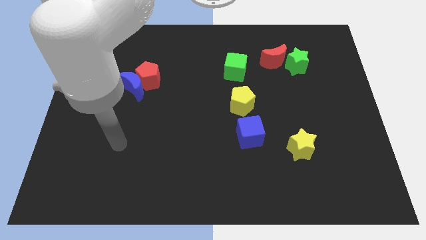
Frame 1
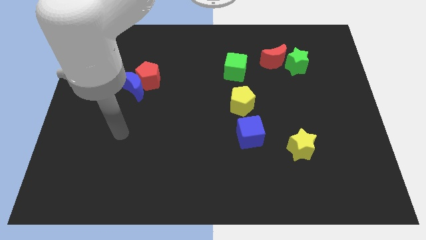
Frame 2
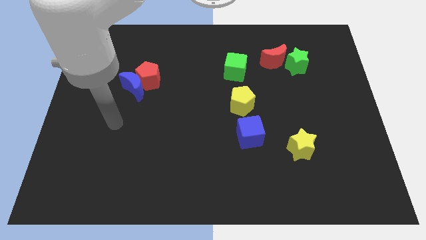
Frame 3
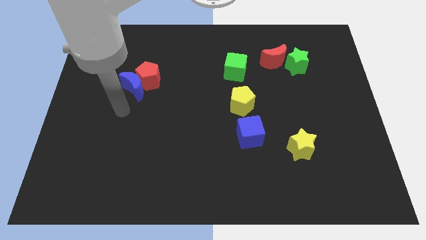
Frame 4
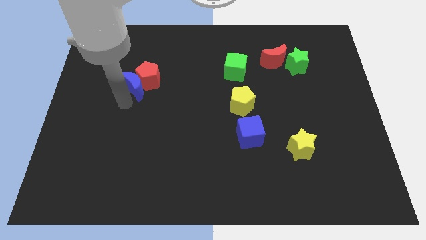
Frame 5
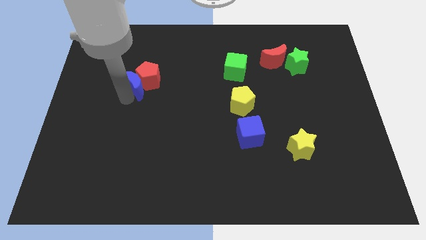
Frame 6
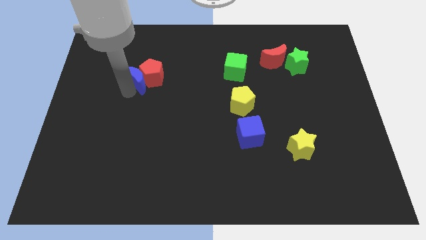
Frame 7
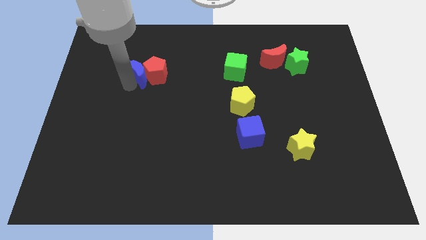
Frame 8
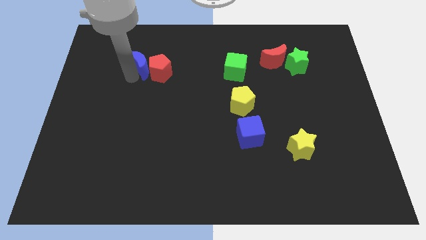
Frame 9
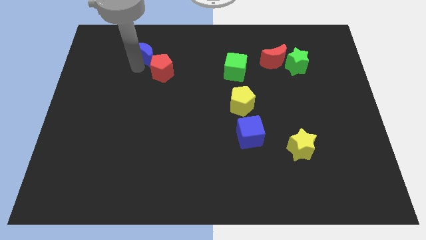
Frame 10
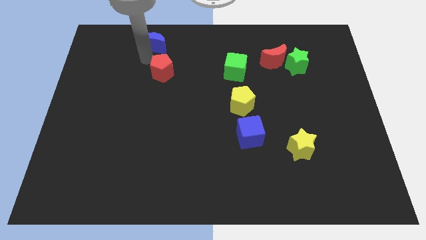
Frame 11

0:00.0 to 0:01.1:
separate the red pentagon from the blue moon

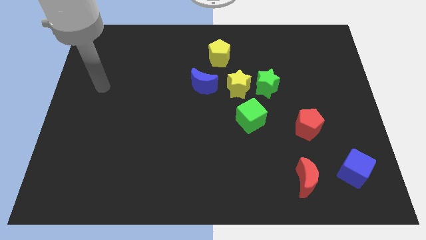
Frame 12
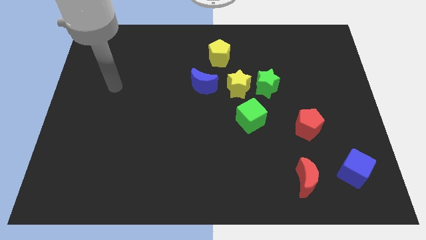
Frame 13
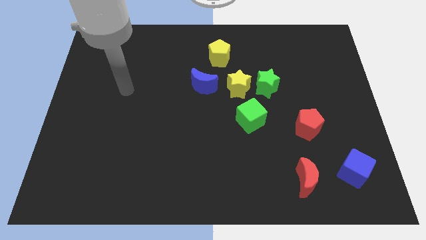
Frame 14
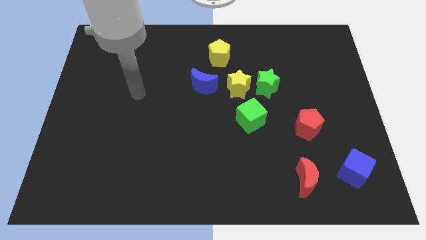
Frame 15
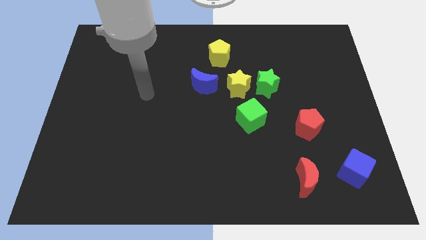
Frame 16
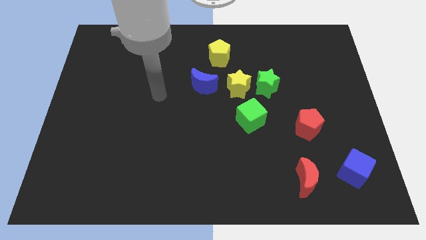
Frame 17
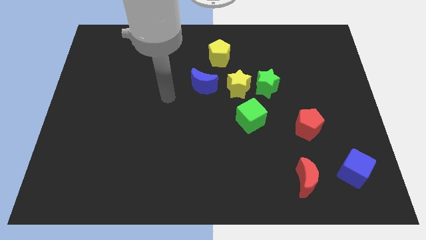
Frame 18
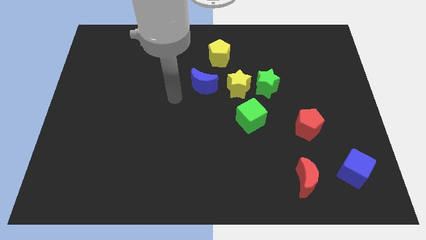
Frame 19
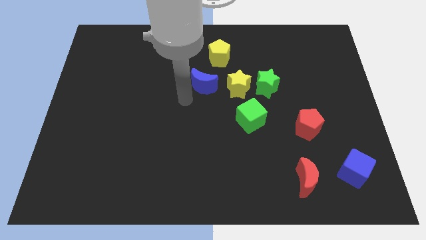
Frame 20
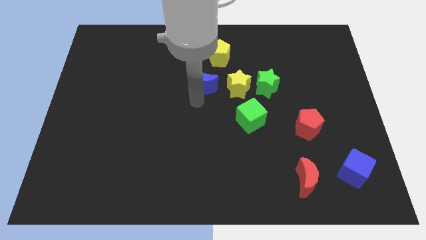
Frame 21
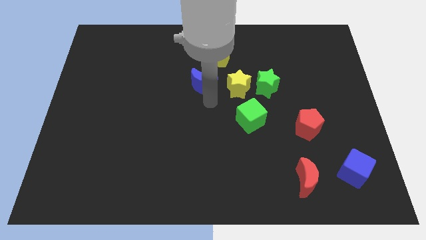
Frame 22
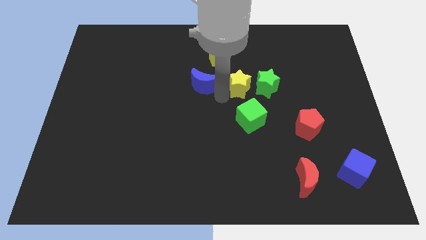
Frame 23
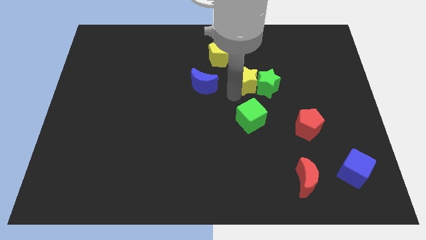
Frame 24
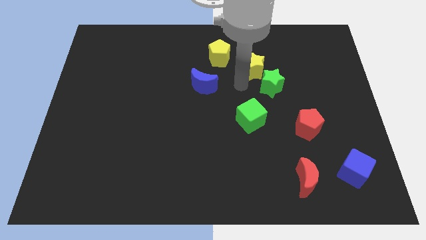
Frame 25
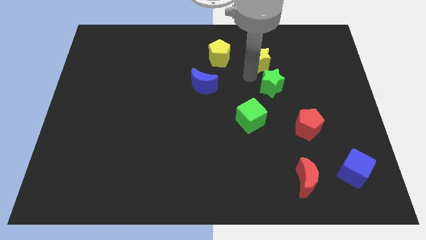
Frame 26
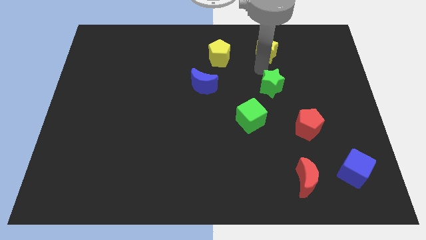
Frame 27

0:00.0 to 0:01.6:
separate the green star from the yellow star

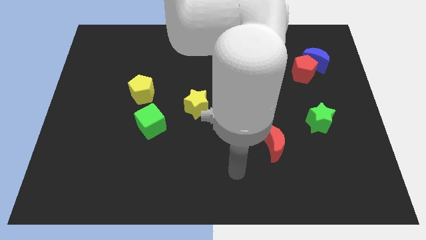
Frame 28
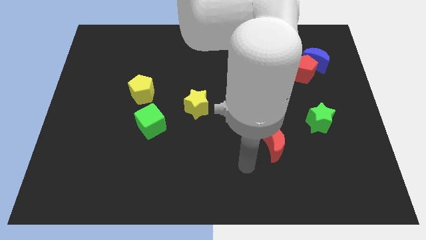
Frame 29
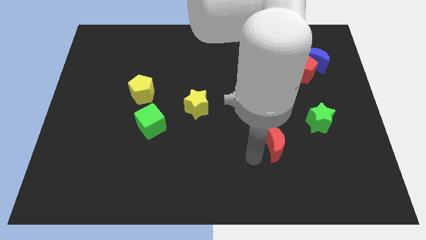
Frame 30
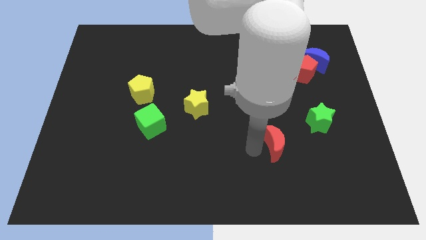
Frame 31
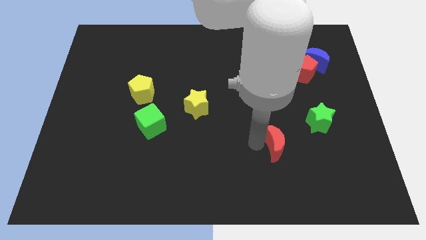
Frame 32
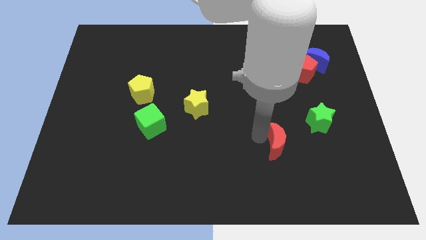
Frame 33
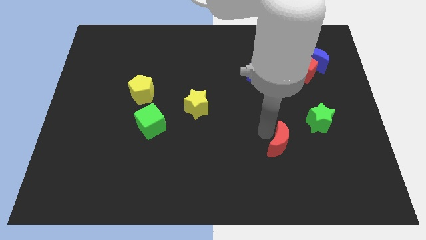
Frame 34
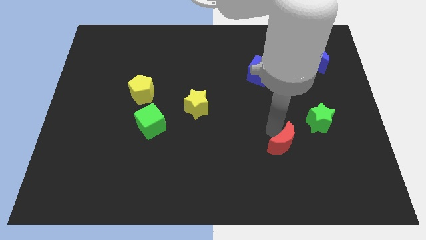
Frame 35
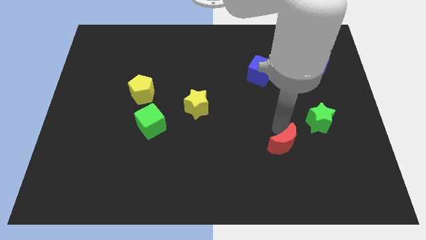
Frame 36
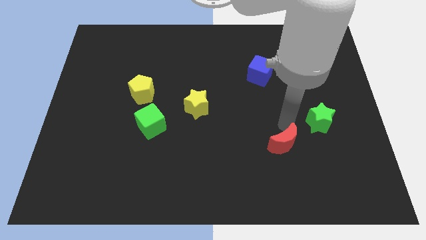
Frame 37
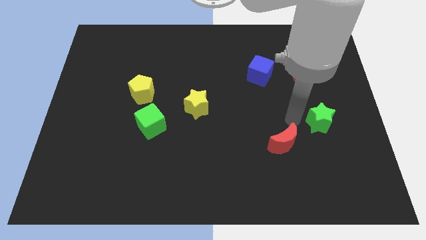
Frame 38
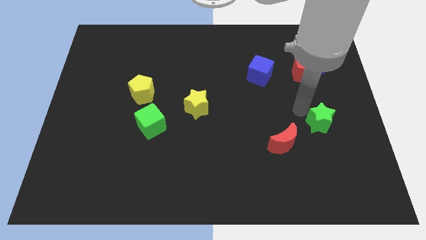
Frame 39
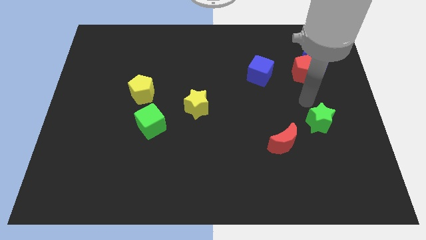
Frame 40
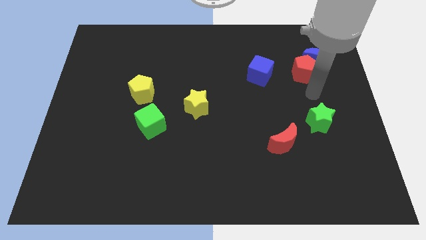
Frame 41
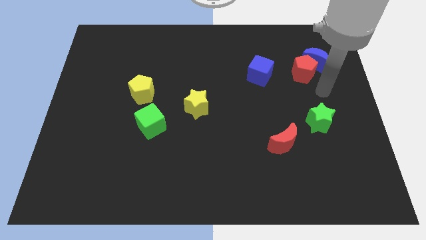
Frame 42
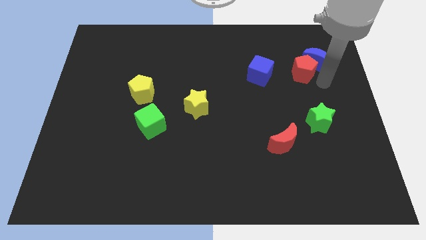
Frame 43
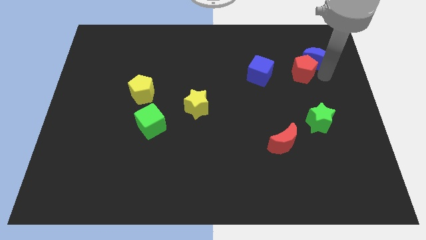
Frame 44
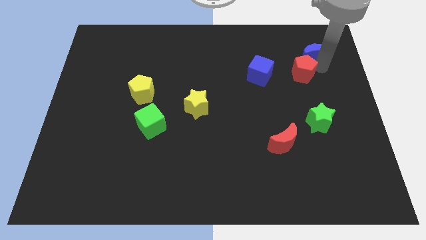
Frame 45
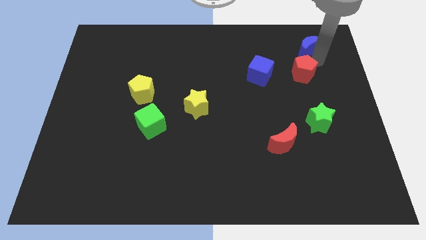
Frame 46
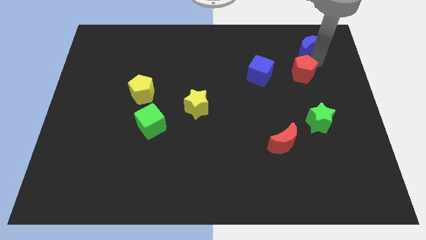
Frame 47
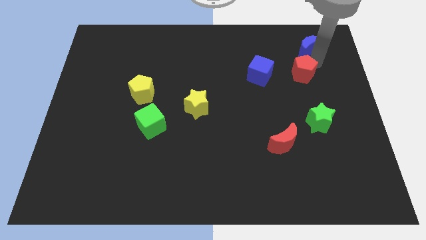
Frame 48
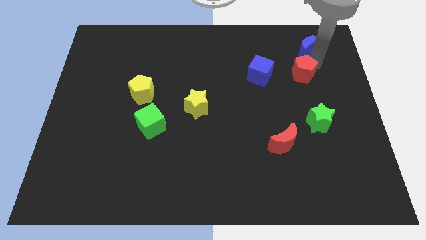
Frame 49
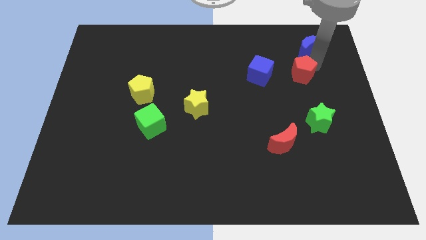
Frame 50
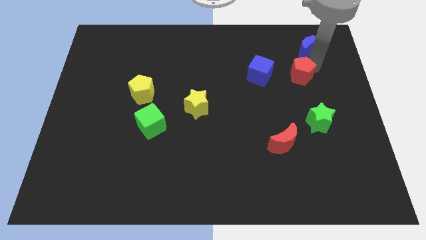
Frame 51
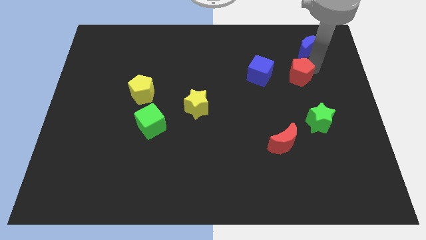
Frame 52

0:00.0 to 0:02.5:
pull the red pentagon apart from the blue moon

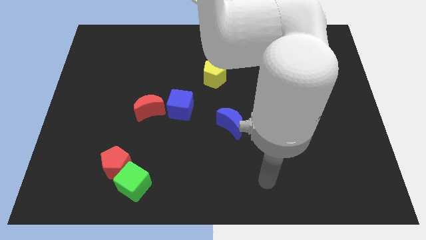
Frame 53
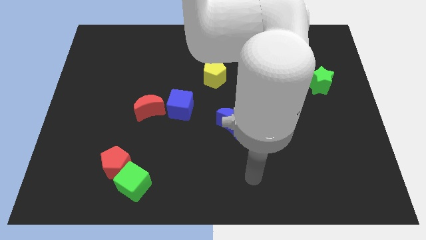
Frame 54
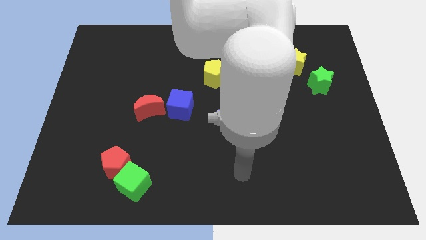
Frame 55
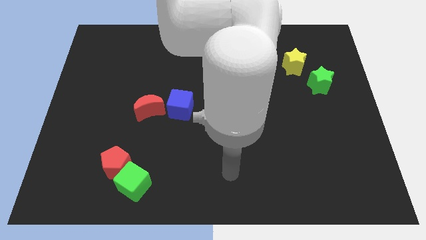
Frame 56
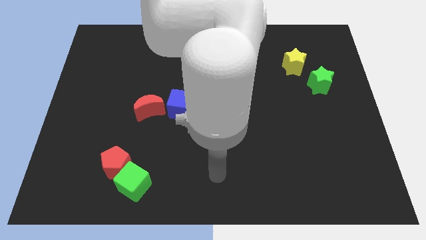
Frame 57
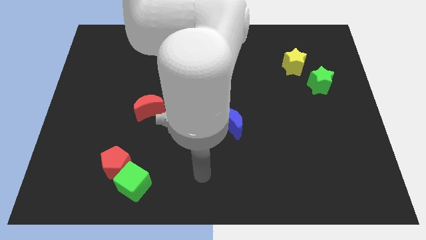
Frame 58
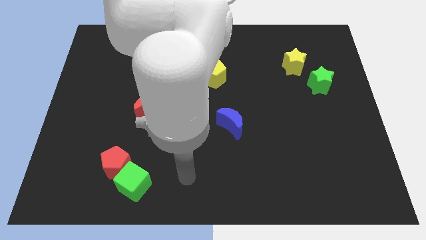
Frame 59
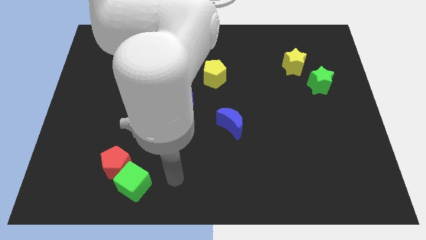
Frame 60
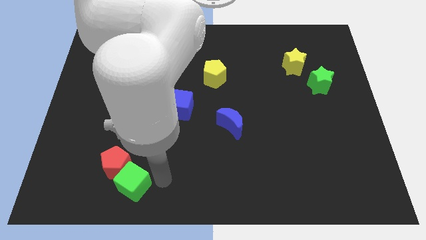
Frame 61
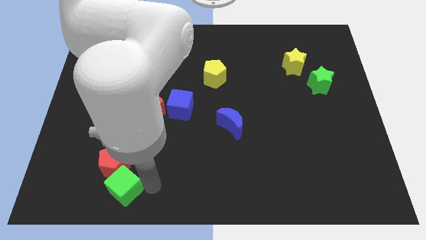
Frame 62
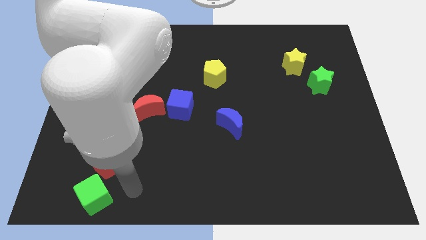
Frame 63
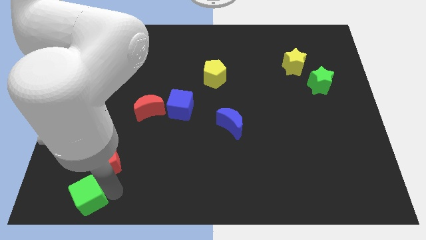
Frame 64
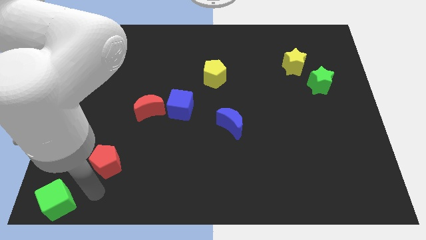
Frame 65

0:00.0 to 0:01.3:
move the red pentagon away from the green cube

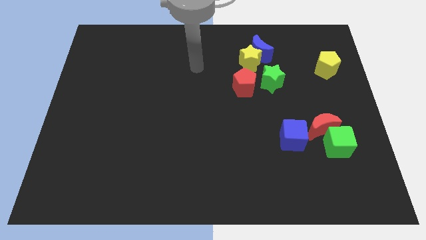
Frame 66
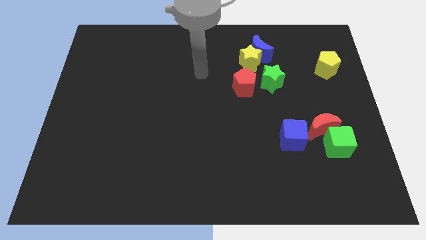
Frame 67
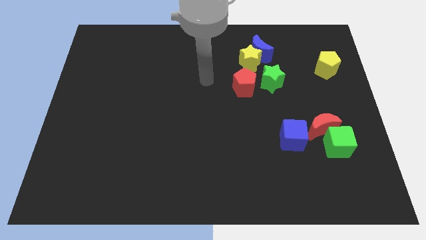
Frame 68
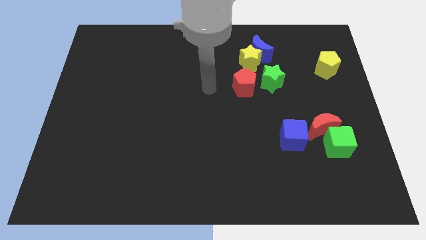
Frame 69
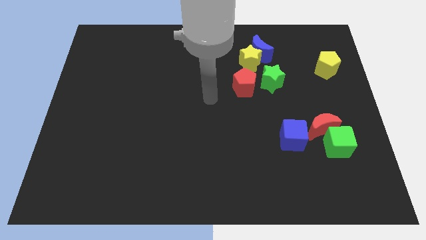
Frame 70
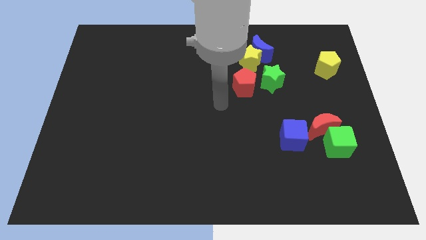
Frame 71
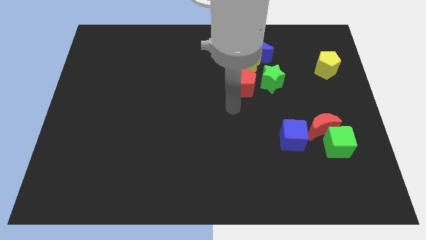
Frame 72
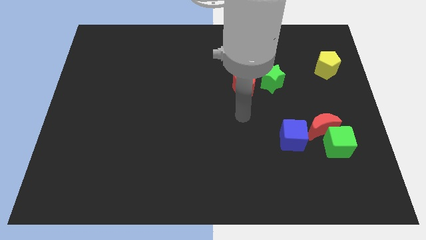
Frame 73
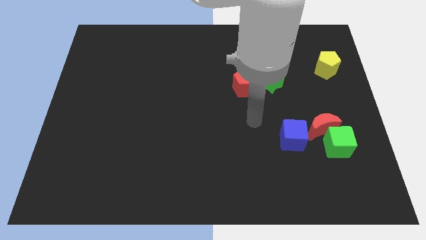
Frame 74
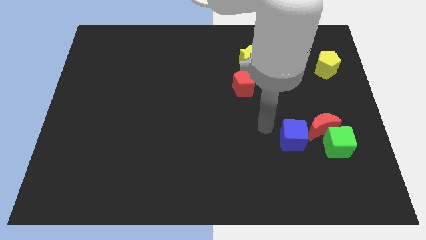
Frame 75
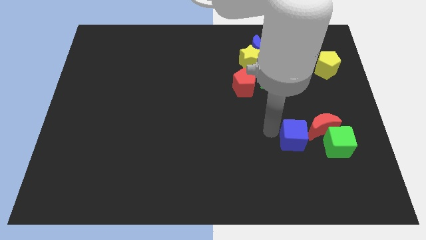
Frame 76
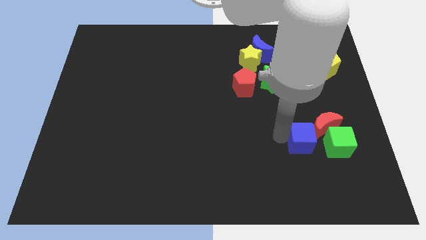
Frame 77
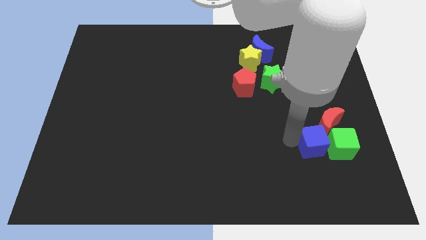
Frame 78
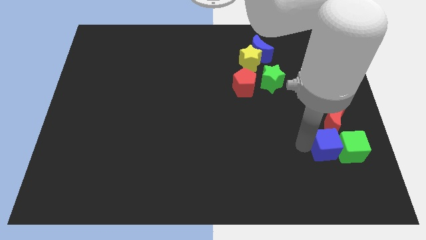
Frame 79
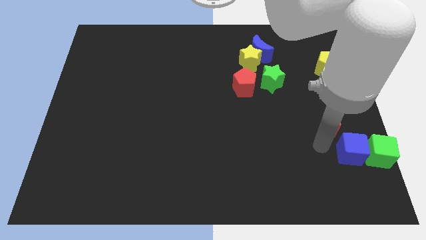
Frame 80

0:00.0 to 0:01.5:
separate the red moon from the green cube and blue cube

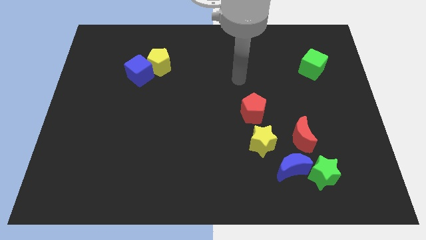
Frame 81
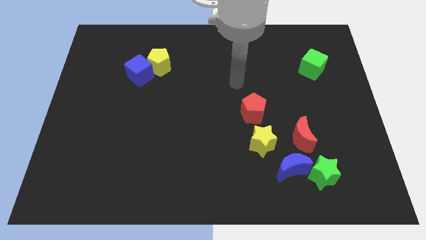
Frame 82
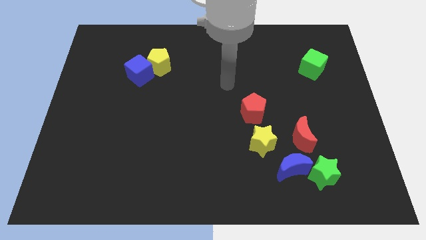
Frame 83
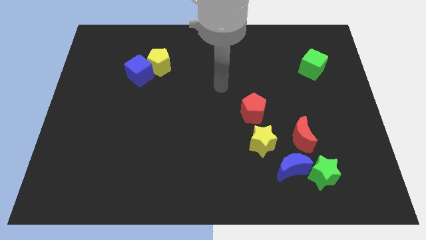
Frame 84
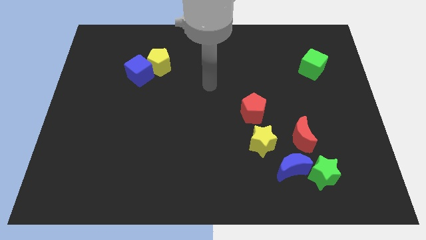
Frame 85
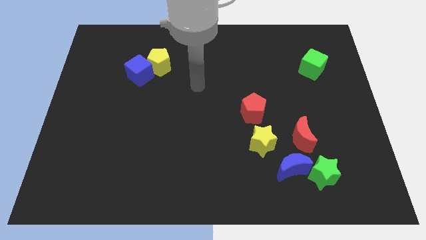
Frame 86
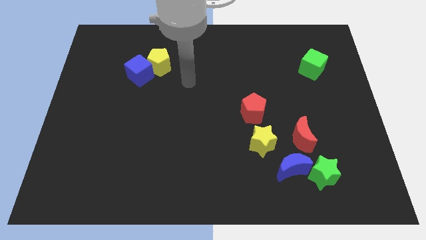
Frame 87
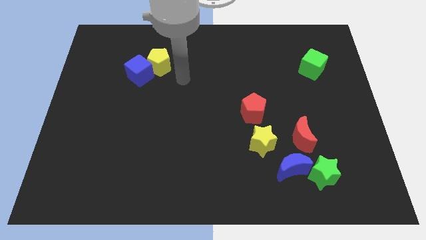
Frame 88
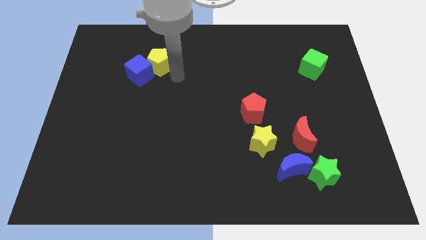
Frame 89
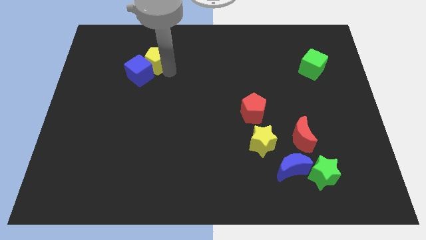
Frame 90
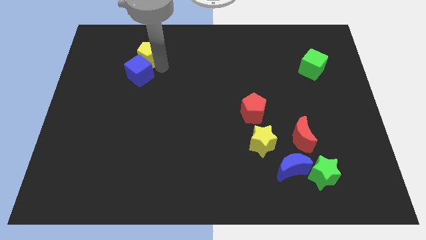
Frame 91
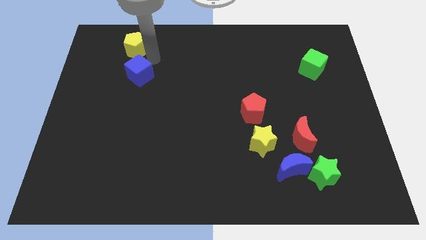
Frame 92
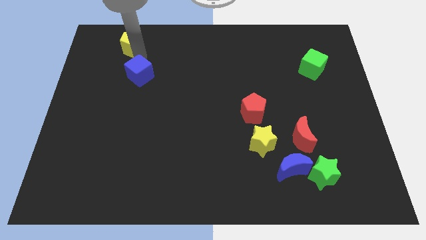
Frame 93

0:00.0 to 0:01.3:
move the blue cube away from the yellow pentagon
